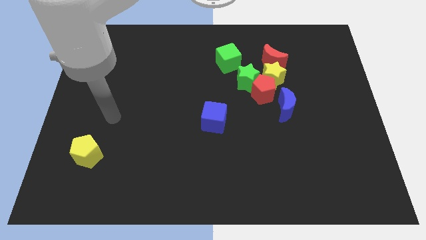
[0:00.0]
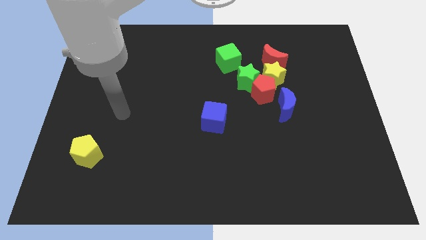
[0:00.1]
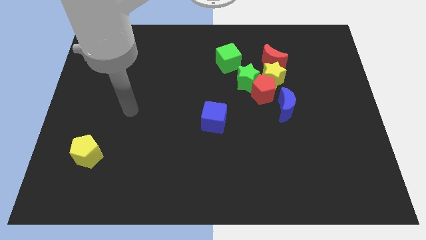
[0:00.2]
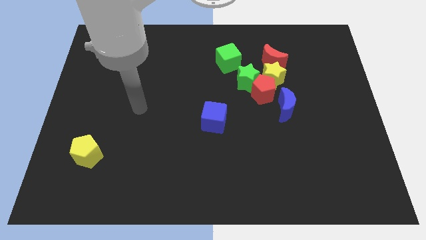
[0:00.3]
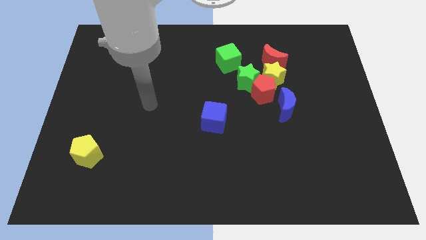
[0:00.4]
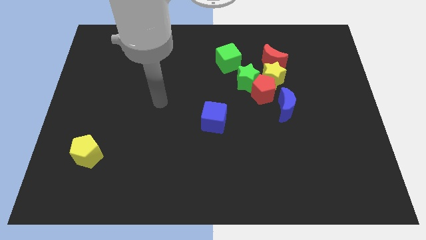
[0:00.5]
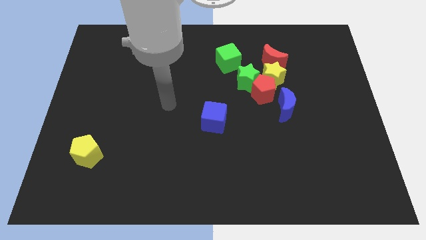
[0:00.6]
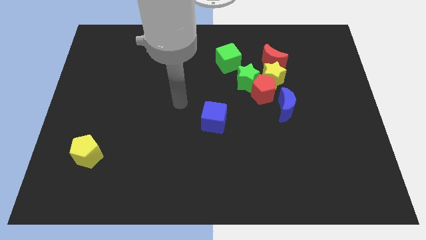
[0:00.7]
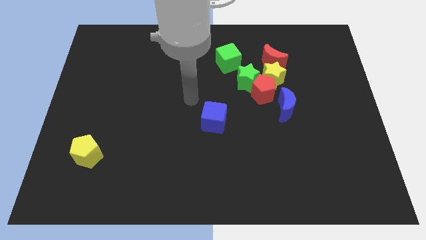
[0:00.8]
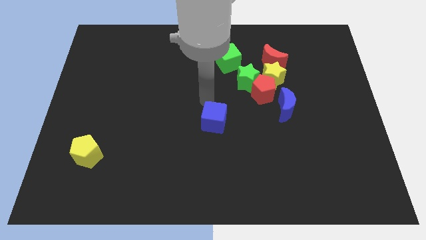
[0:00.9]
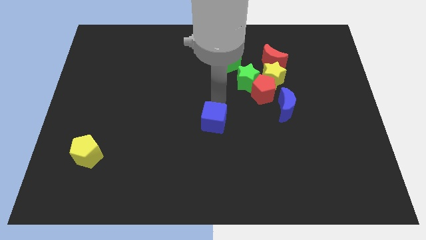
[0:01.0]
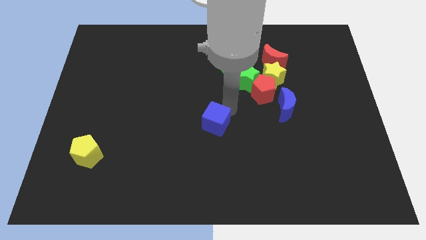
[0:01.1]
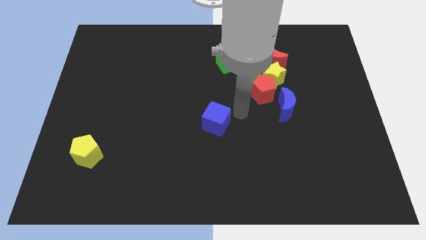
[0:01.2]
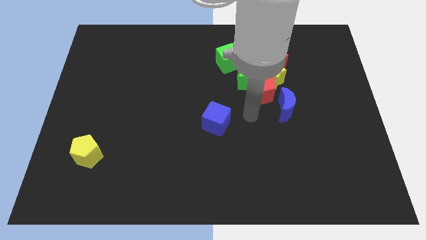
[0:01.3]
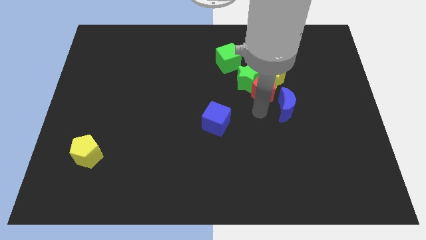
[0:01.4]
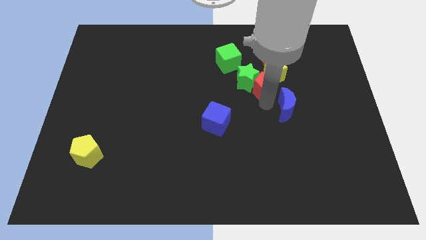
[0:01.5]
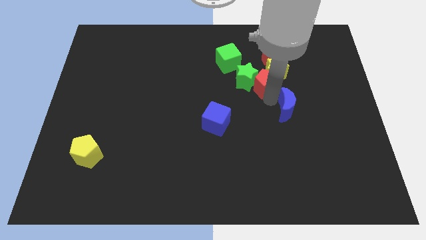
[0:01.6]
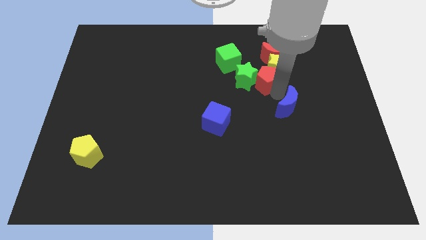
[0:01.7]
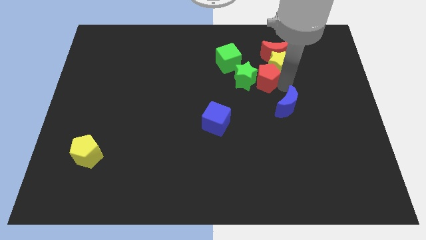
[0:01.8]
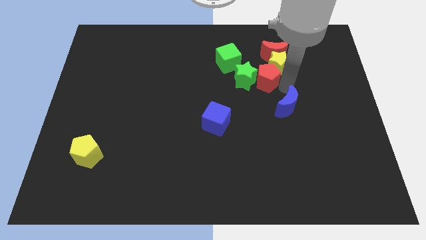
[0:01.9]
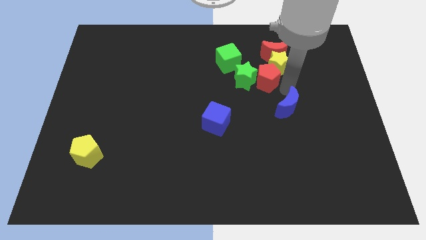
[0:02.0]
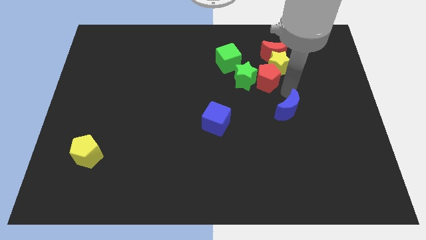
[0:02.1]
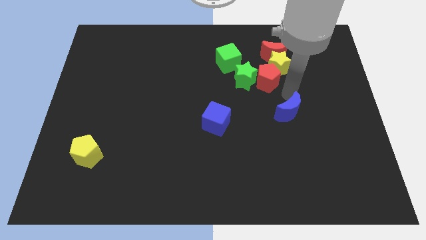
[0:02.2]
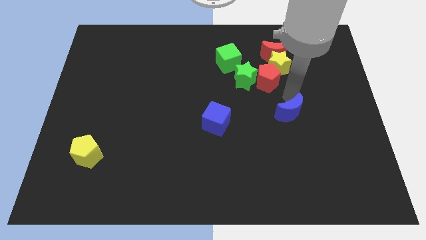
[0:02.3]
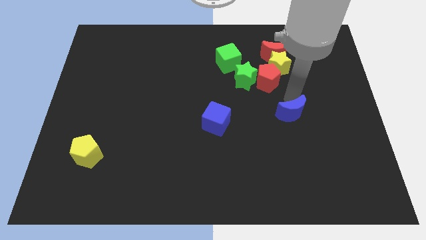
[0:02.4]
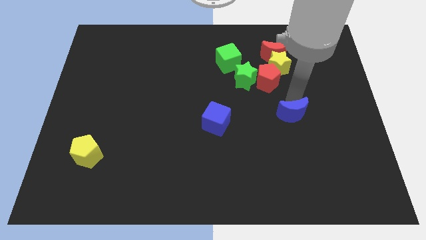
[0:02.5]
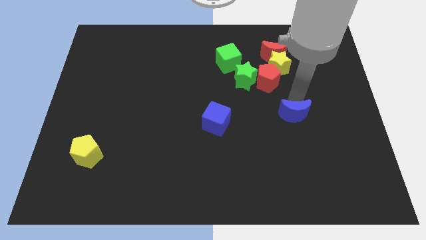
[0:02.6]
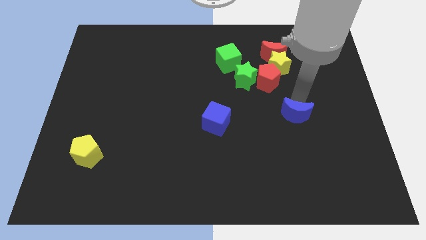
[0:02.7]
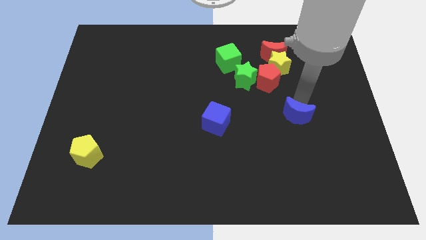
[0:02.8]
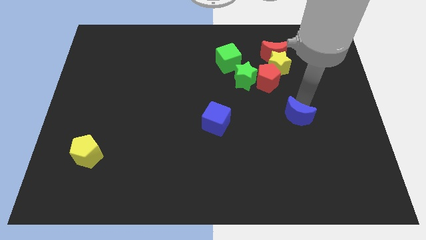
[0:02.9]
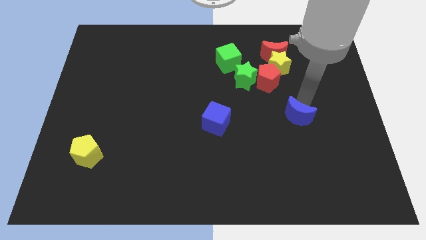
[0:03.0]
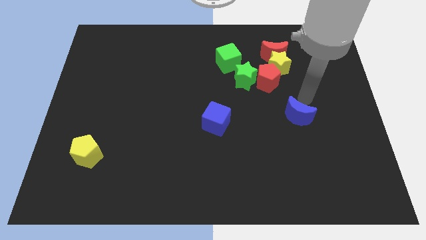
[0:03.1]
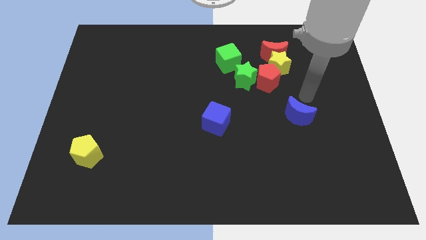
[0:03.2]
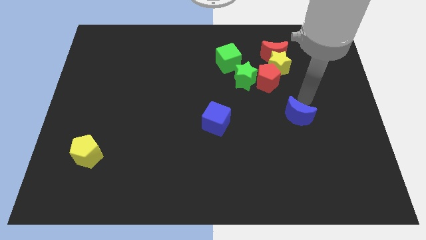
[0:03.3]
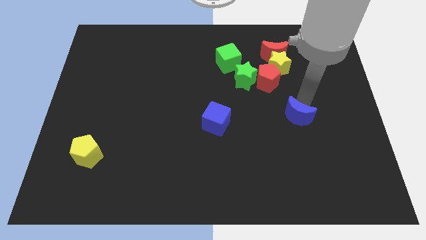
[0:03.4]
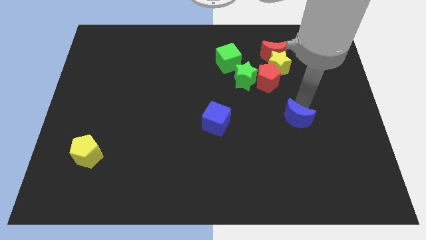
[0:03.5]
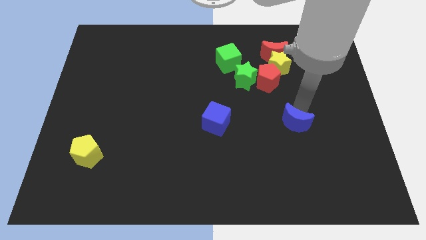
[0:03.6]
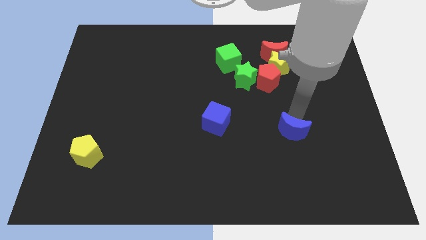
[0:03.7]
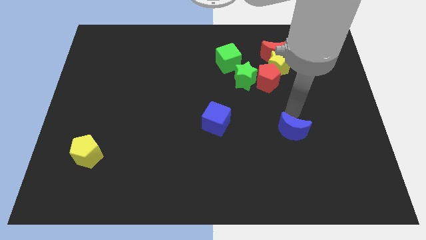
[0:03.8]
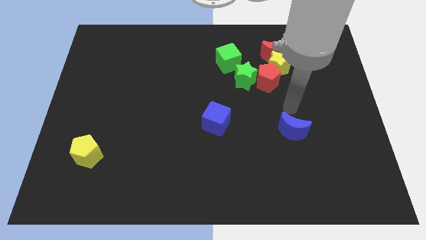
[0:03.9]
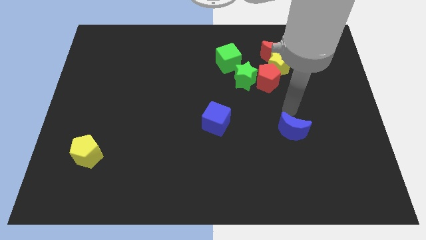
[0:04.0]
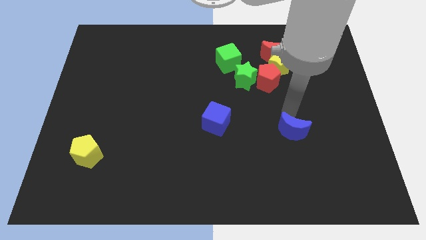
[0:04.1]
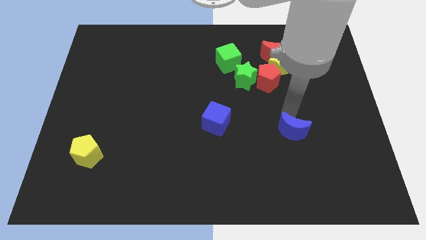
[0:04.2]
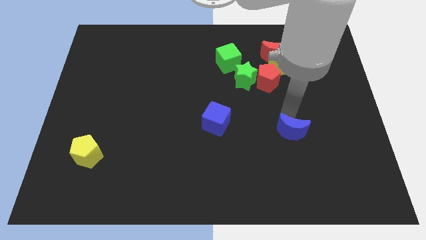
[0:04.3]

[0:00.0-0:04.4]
move the blue moon downwards somewhat

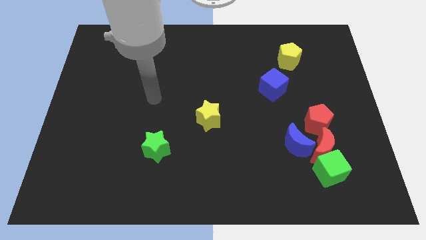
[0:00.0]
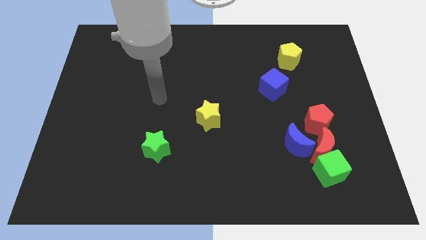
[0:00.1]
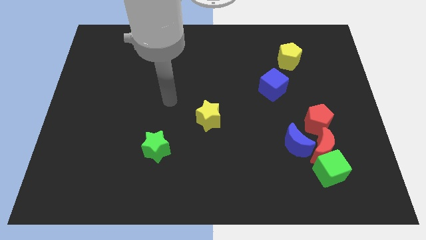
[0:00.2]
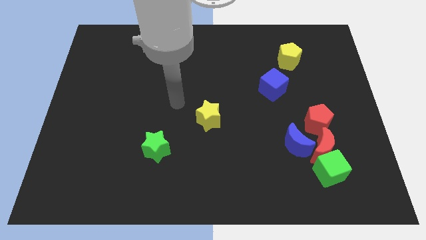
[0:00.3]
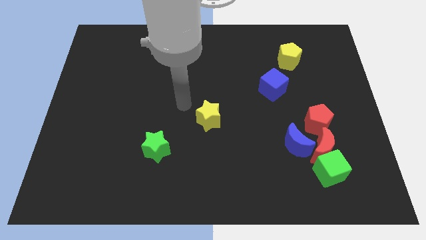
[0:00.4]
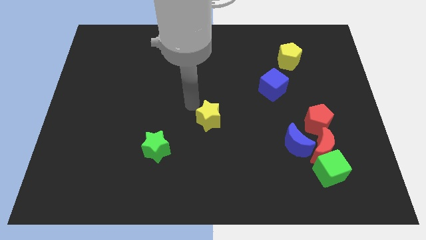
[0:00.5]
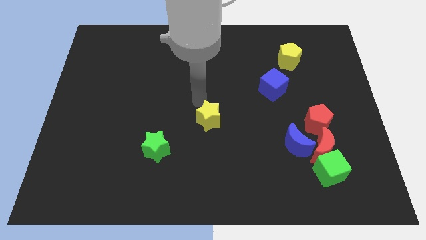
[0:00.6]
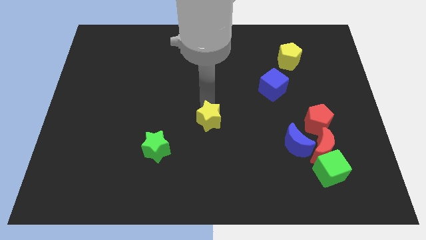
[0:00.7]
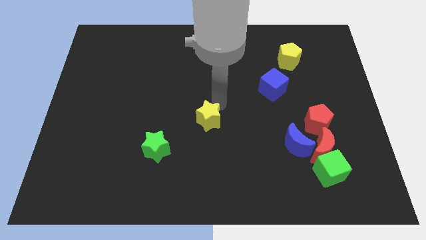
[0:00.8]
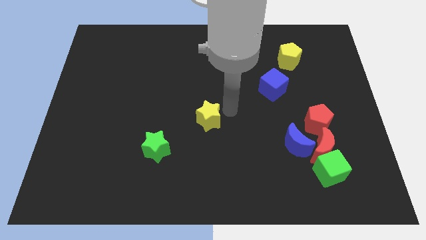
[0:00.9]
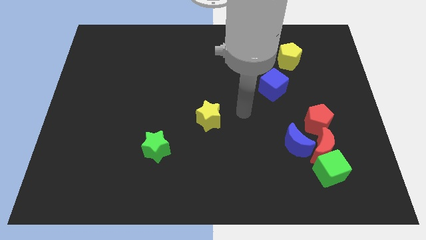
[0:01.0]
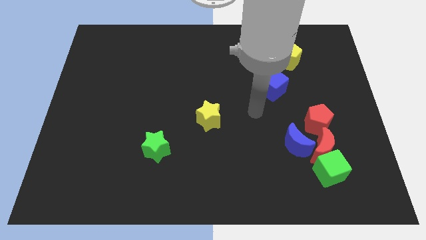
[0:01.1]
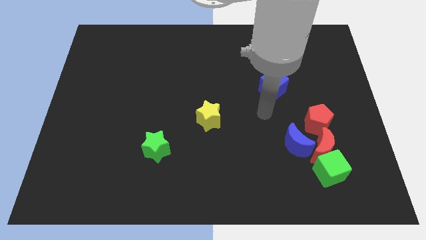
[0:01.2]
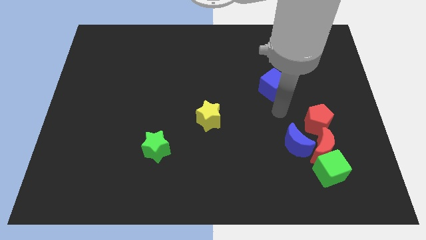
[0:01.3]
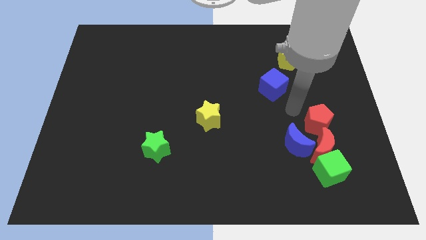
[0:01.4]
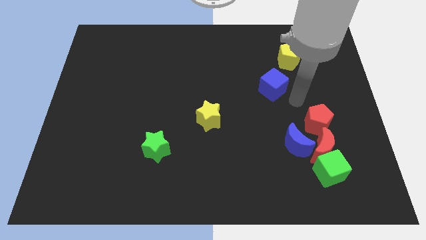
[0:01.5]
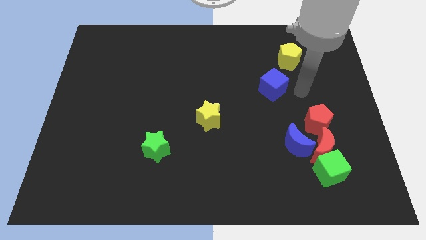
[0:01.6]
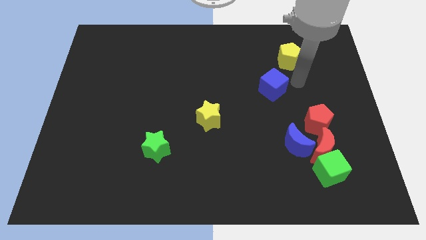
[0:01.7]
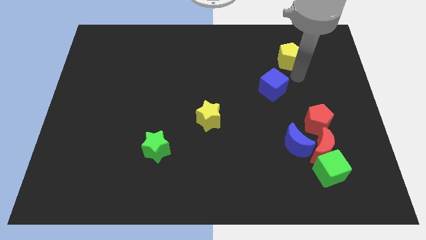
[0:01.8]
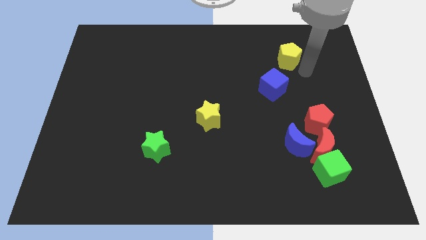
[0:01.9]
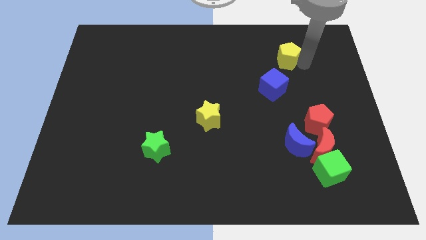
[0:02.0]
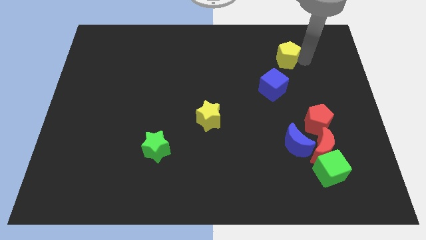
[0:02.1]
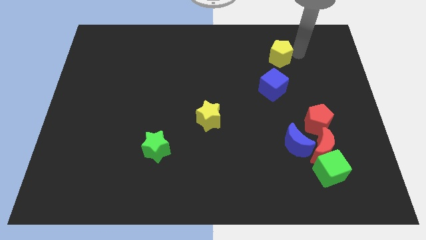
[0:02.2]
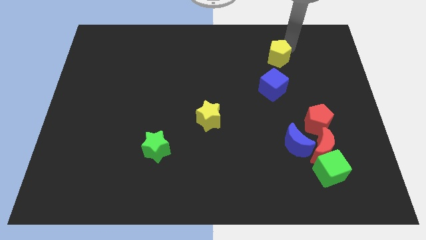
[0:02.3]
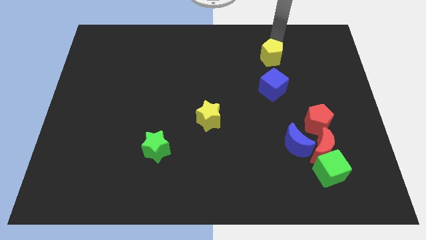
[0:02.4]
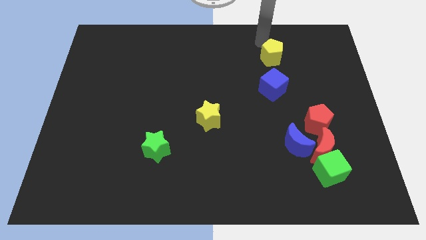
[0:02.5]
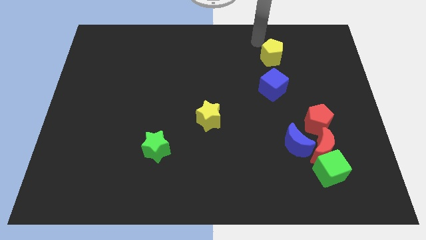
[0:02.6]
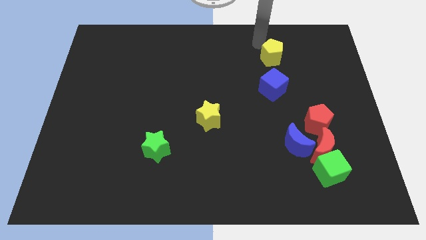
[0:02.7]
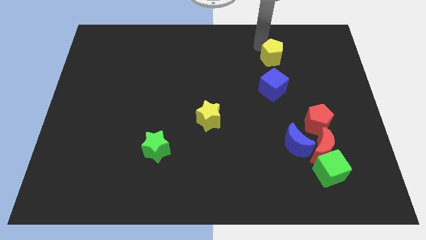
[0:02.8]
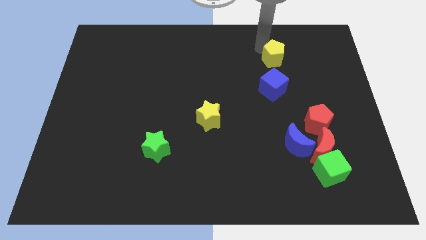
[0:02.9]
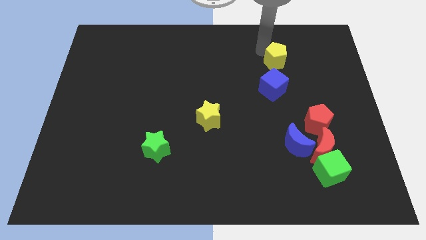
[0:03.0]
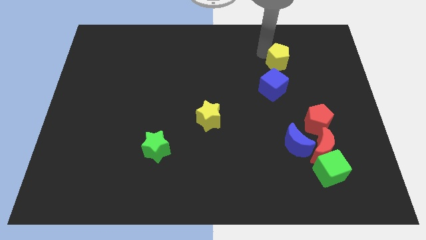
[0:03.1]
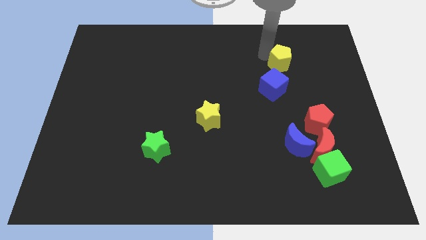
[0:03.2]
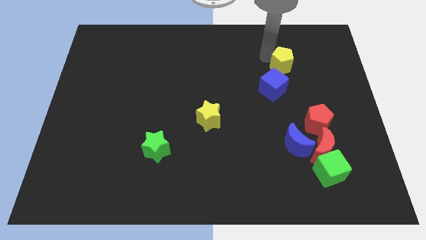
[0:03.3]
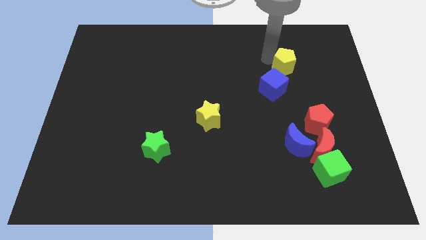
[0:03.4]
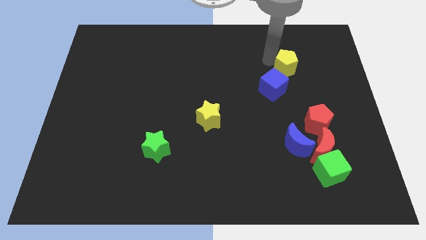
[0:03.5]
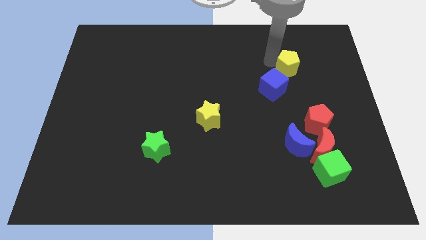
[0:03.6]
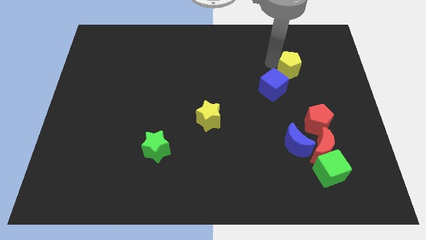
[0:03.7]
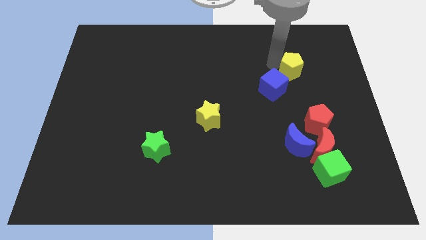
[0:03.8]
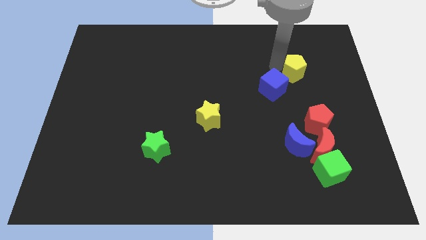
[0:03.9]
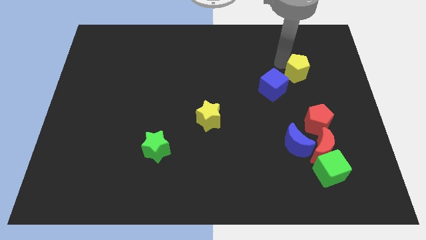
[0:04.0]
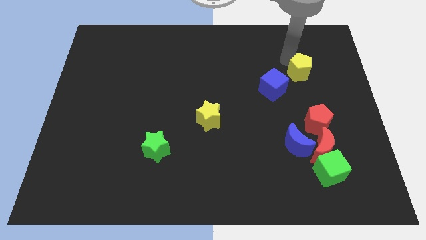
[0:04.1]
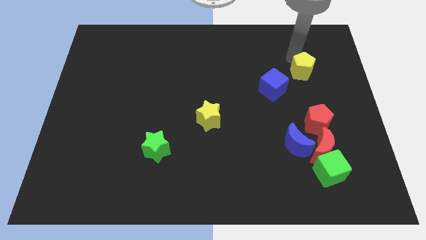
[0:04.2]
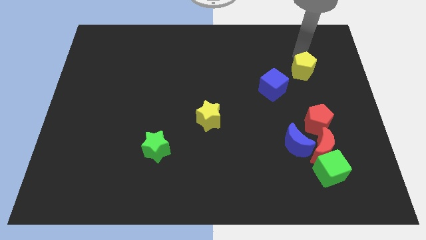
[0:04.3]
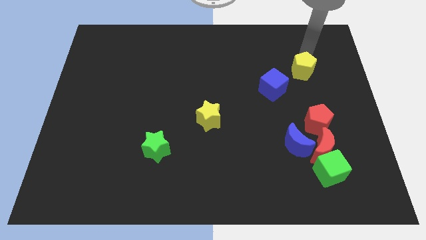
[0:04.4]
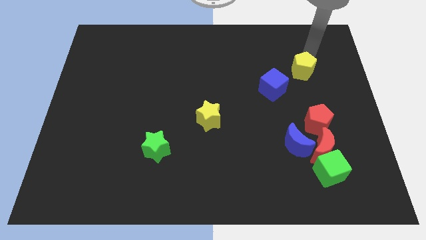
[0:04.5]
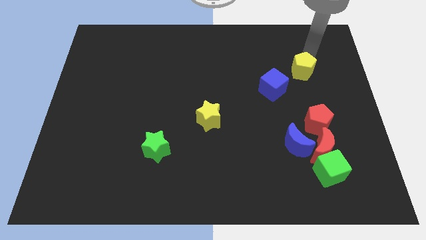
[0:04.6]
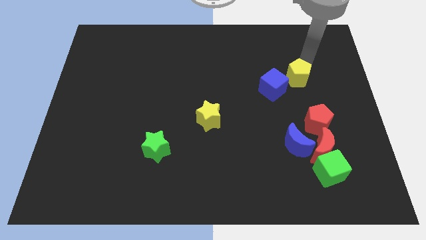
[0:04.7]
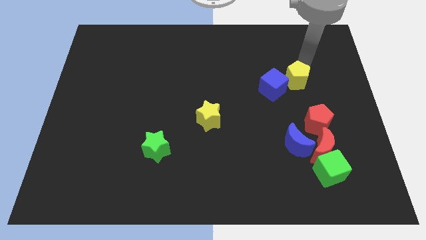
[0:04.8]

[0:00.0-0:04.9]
slightly push the yellow pentagon down
